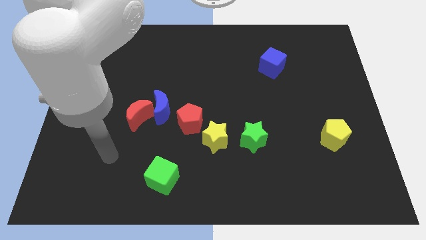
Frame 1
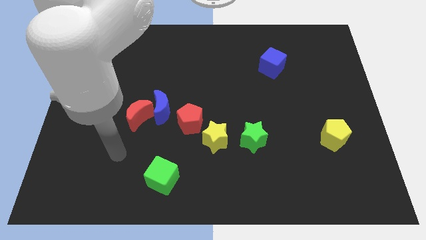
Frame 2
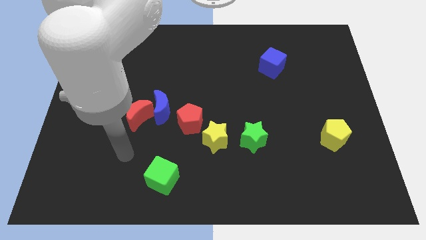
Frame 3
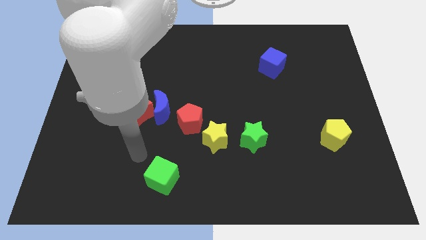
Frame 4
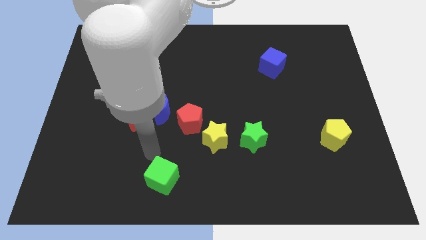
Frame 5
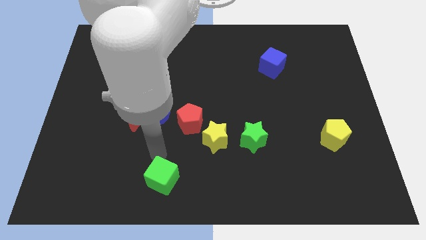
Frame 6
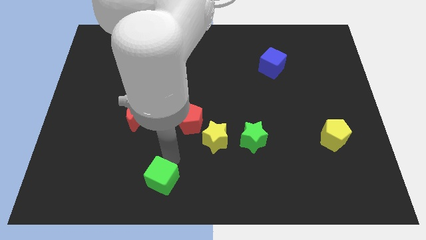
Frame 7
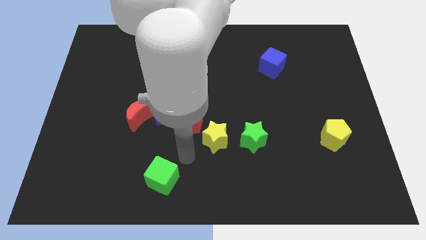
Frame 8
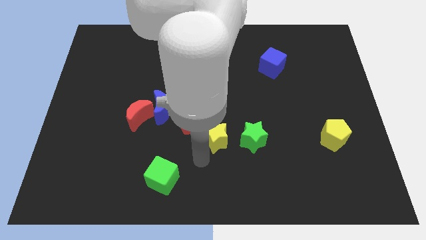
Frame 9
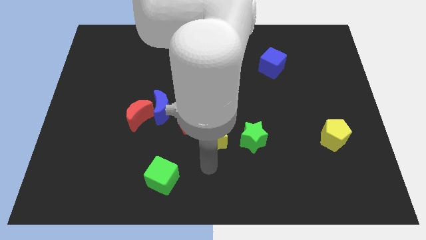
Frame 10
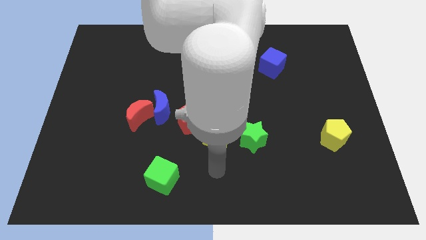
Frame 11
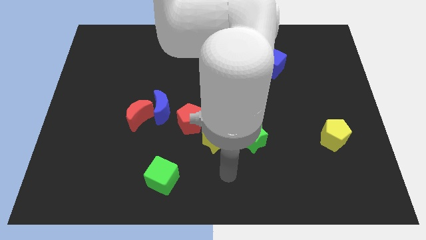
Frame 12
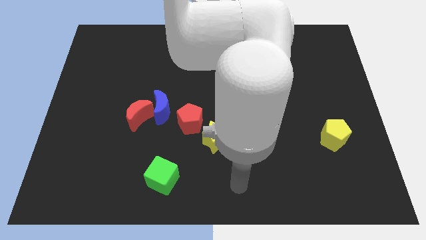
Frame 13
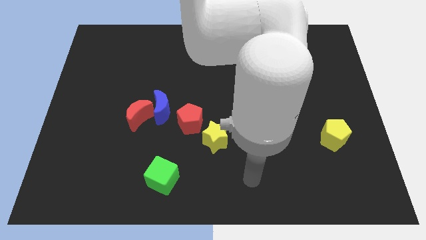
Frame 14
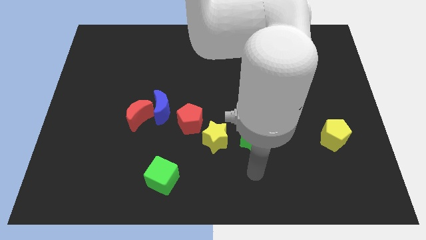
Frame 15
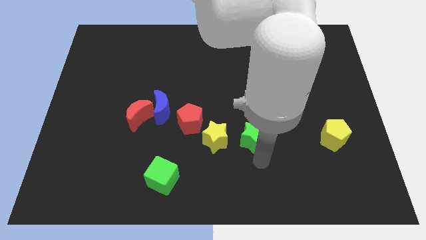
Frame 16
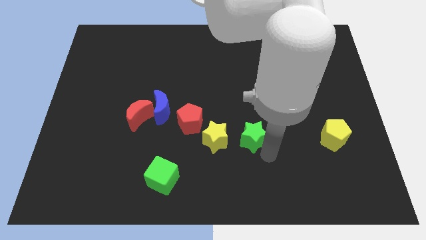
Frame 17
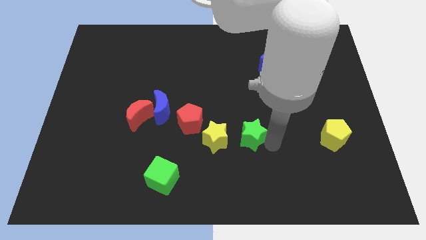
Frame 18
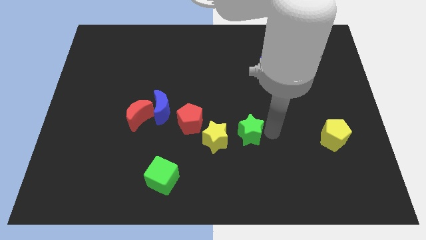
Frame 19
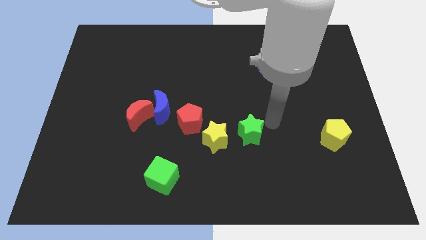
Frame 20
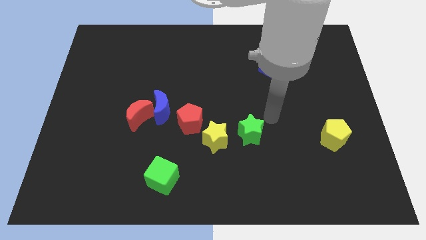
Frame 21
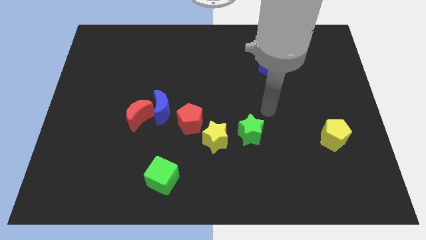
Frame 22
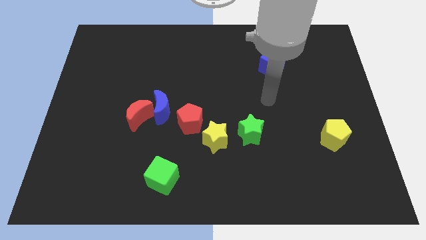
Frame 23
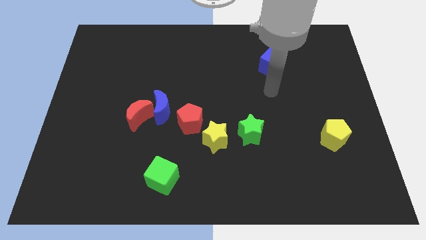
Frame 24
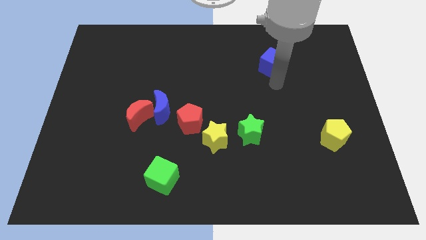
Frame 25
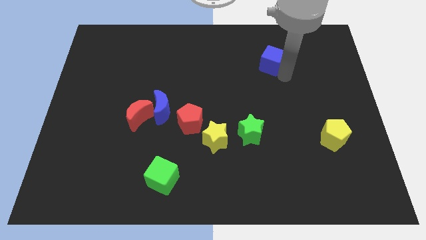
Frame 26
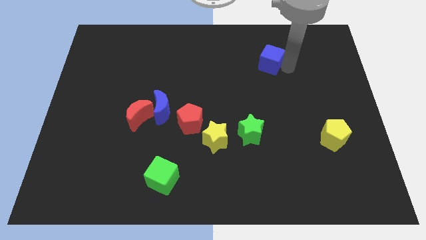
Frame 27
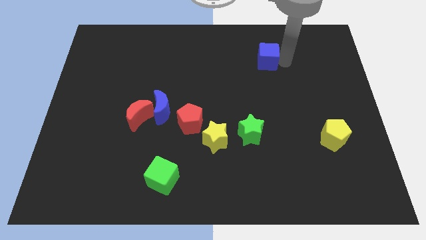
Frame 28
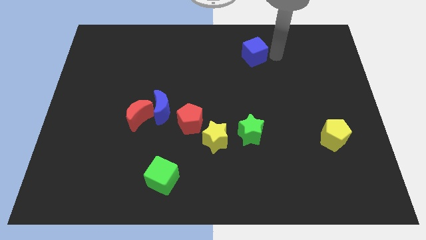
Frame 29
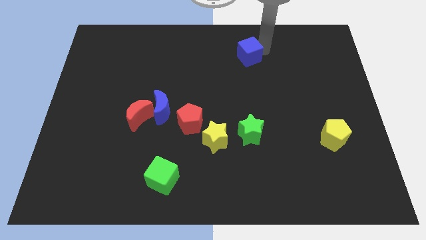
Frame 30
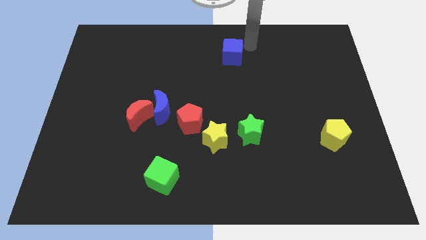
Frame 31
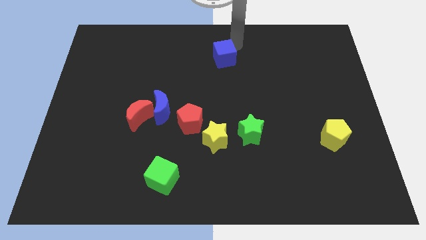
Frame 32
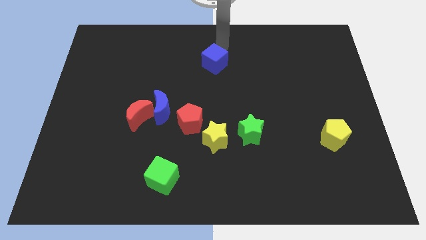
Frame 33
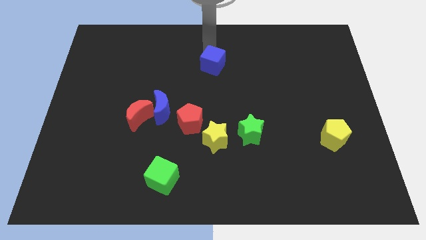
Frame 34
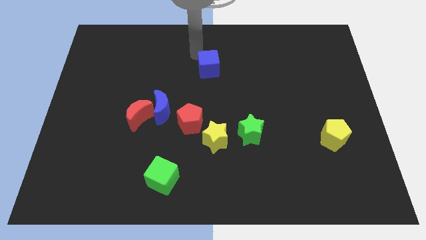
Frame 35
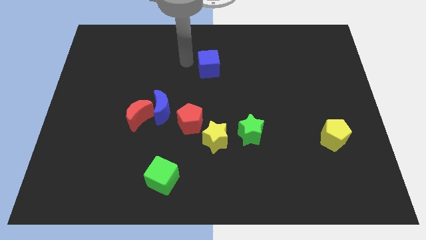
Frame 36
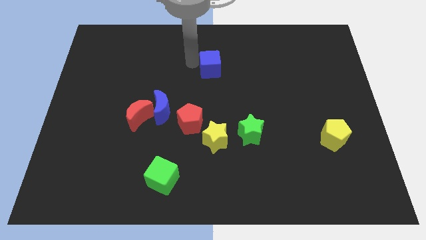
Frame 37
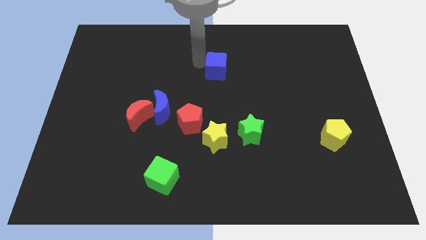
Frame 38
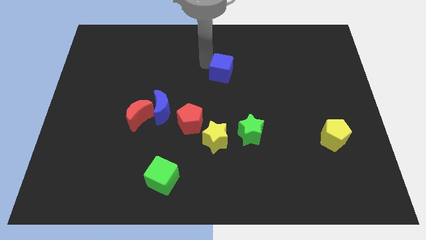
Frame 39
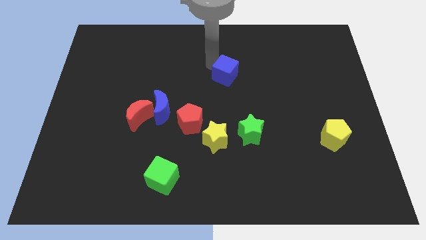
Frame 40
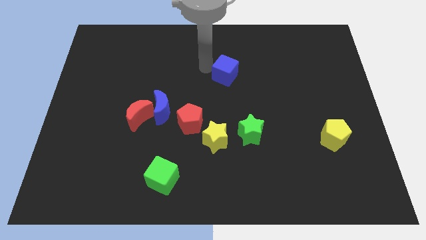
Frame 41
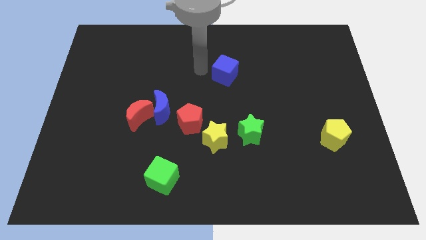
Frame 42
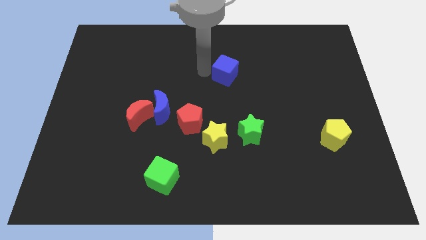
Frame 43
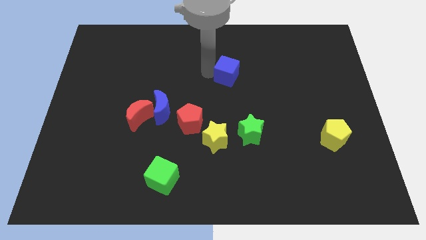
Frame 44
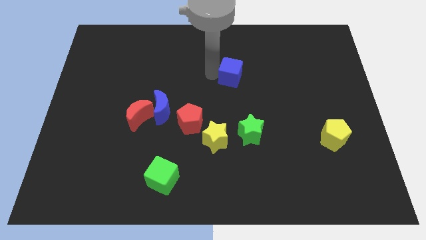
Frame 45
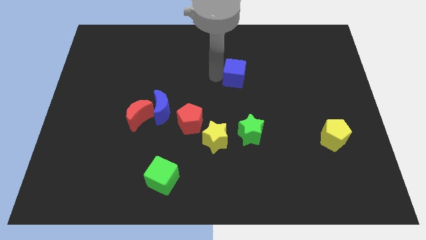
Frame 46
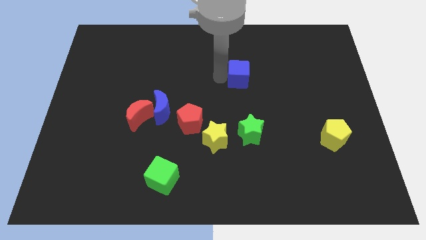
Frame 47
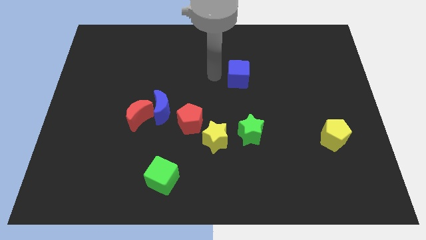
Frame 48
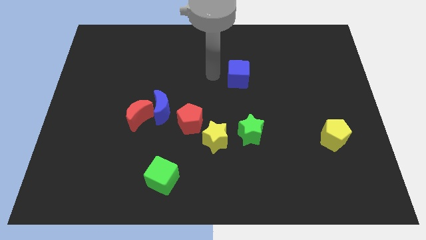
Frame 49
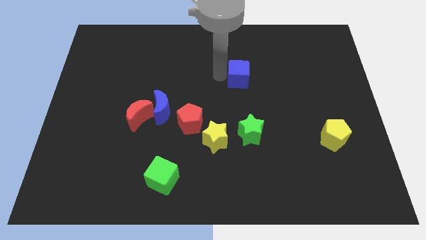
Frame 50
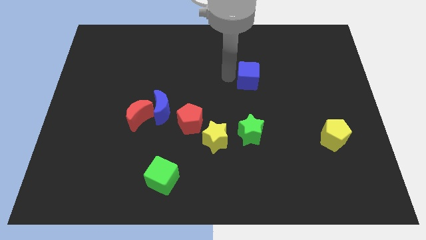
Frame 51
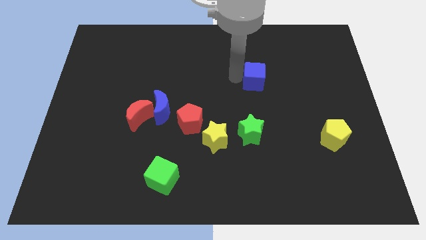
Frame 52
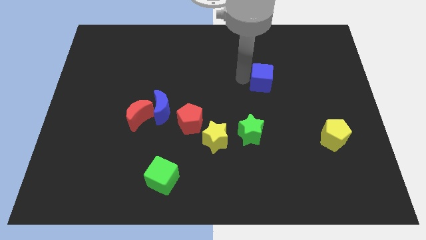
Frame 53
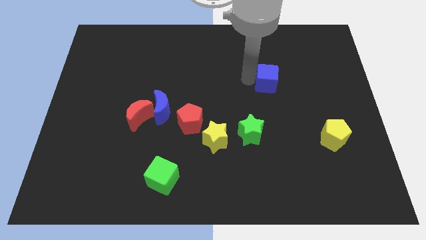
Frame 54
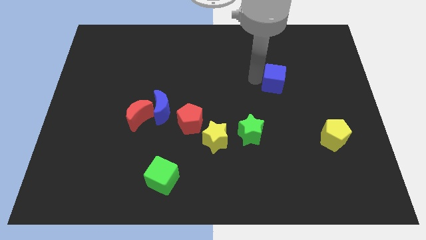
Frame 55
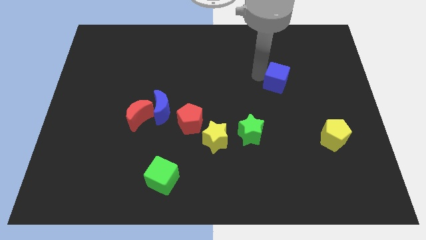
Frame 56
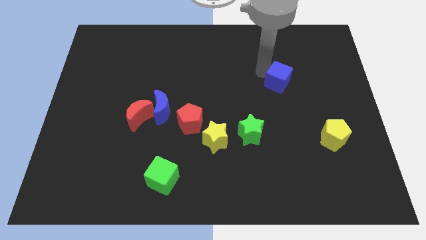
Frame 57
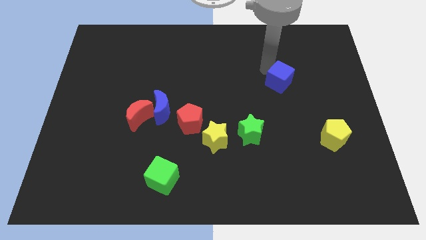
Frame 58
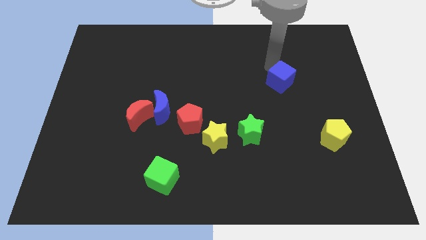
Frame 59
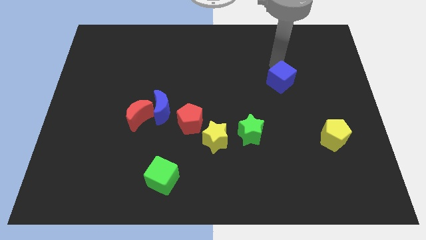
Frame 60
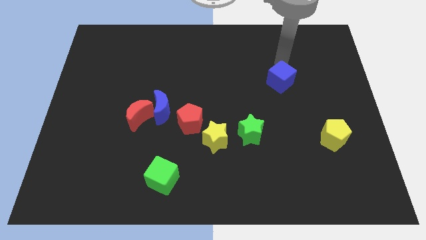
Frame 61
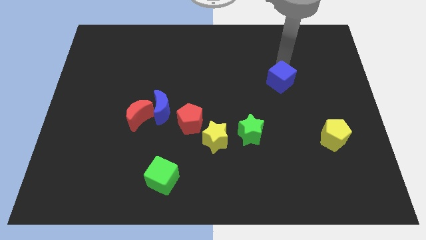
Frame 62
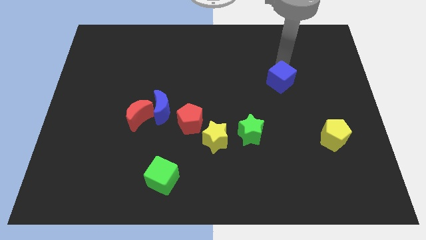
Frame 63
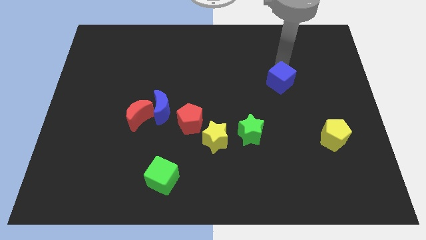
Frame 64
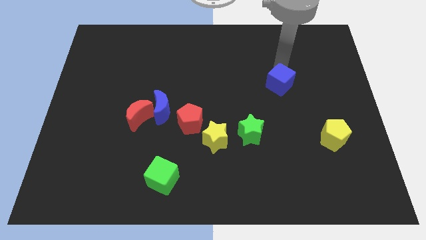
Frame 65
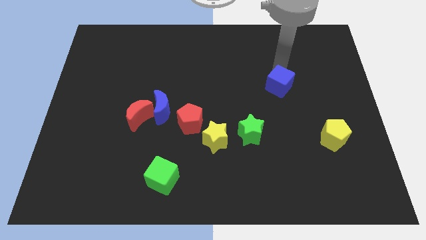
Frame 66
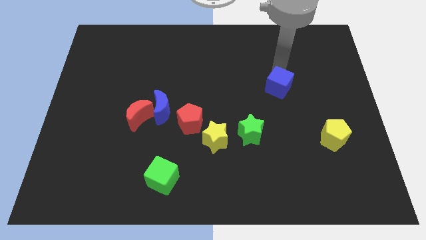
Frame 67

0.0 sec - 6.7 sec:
slightly slide the blue cube downwards

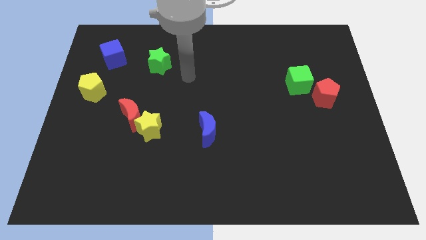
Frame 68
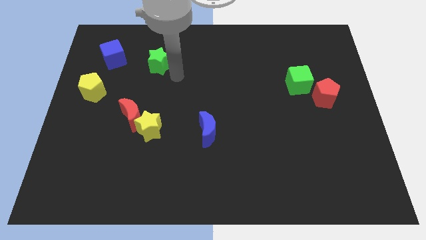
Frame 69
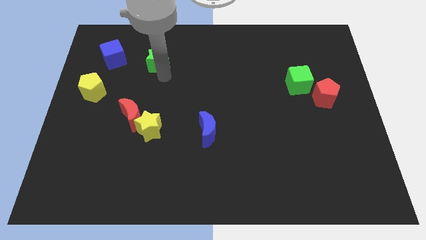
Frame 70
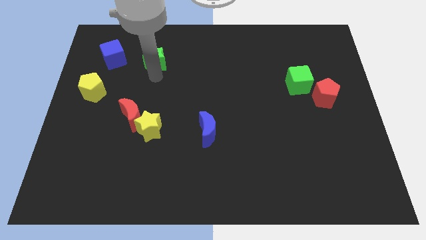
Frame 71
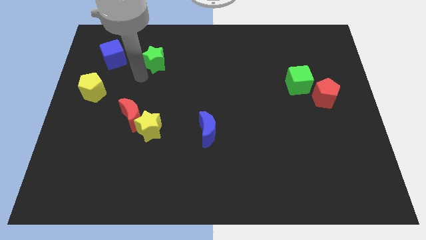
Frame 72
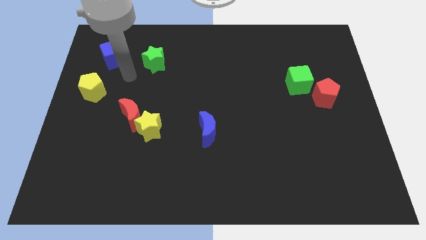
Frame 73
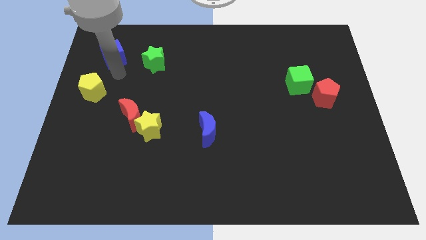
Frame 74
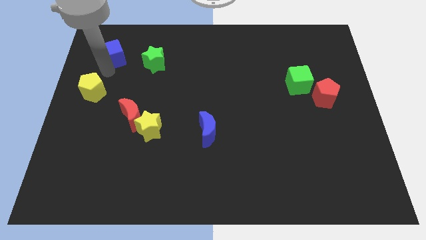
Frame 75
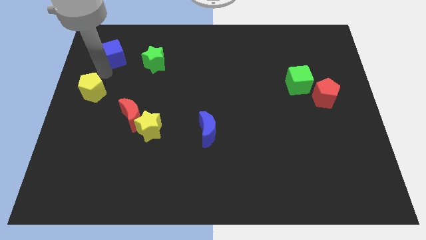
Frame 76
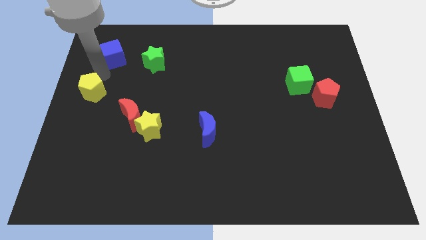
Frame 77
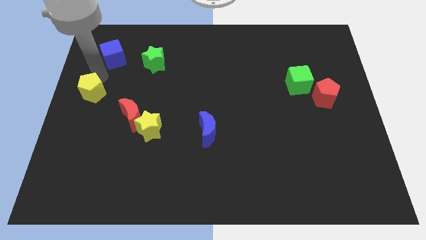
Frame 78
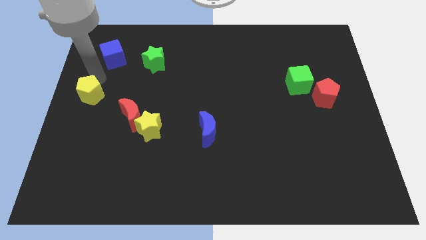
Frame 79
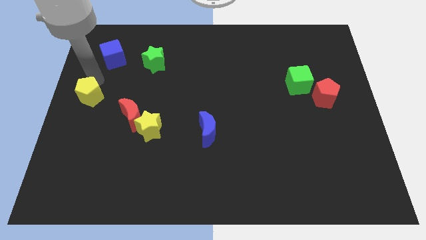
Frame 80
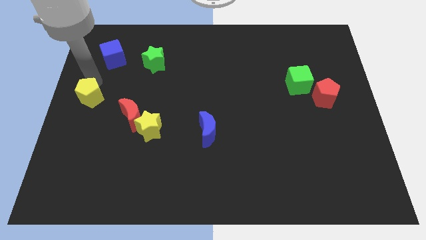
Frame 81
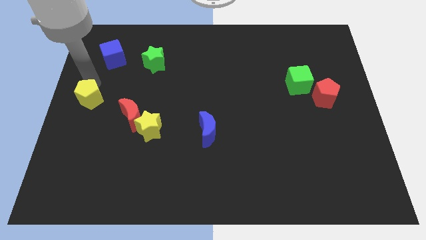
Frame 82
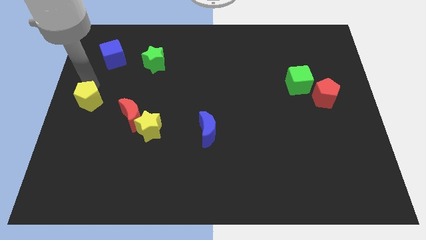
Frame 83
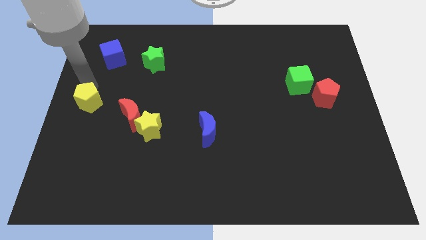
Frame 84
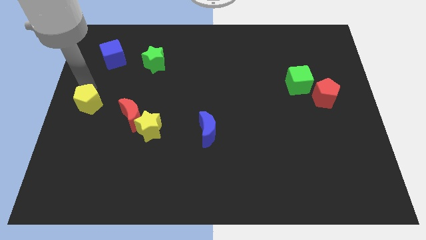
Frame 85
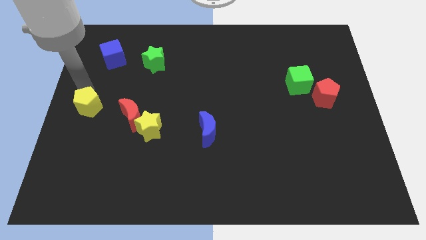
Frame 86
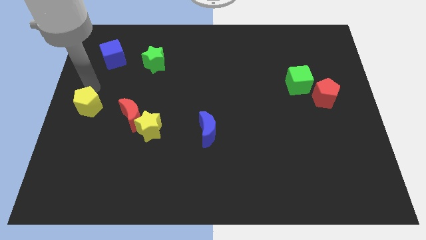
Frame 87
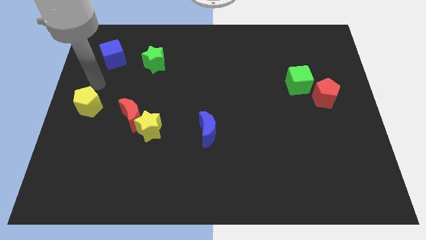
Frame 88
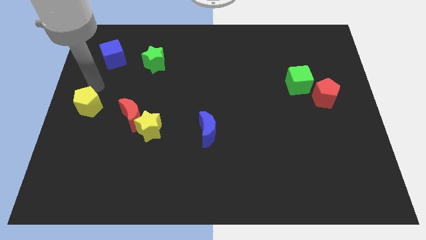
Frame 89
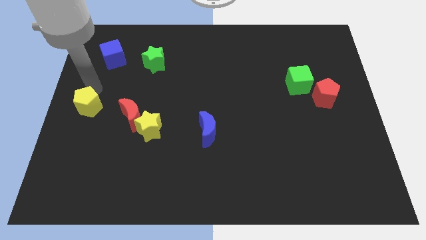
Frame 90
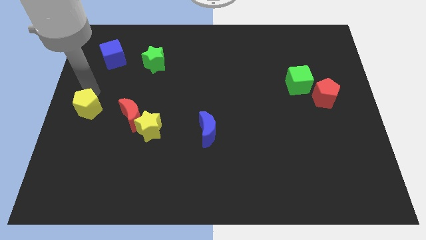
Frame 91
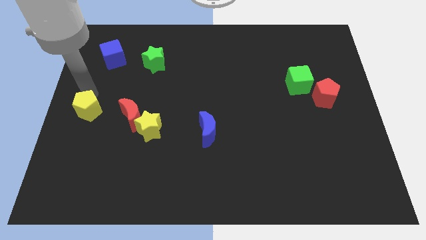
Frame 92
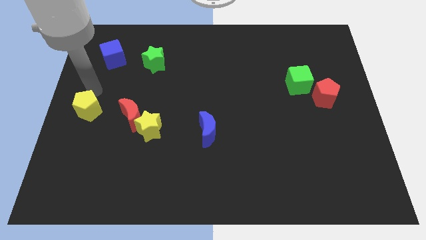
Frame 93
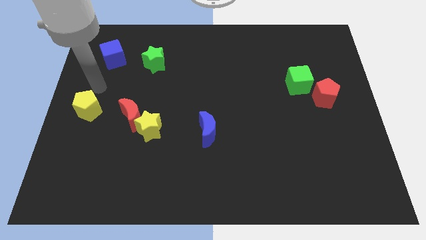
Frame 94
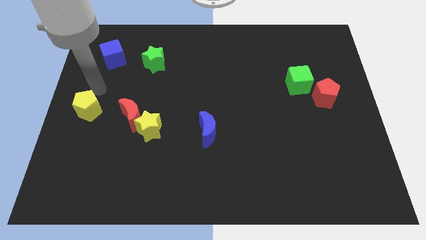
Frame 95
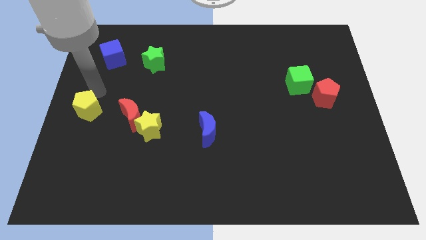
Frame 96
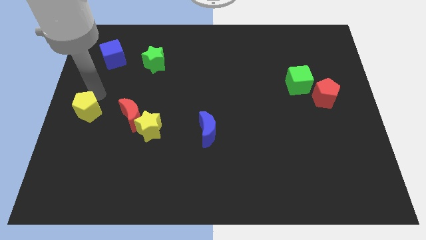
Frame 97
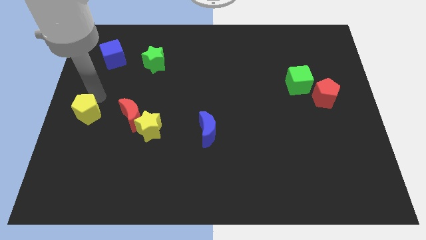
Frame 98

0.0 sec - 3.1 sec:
slide the yellow pentagon down a little
